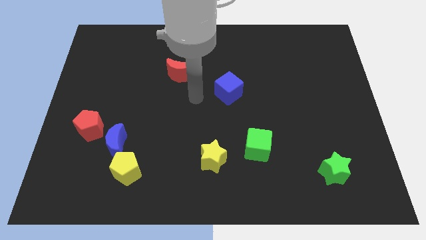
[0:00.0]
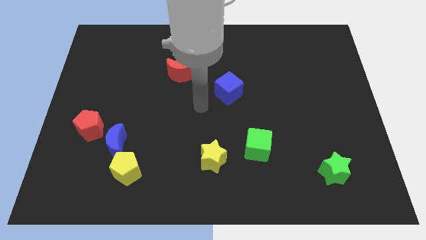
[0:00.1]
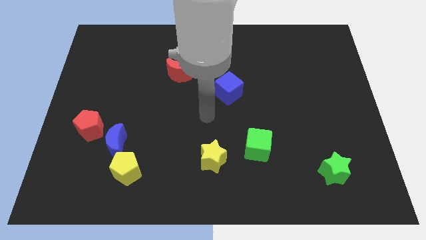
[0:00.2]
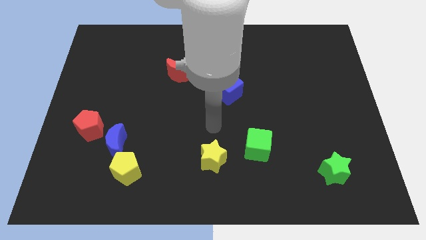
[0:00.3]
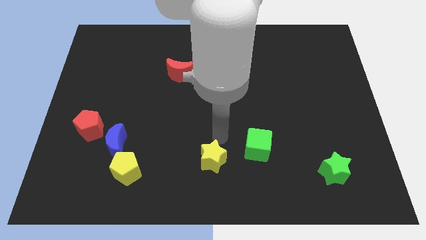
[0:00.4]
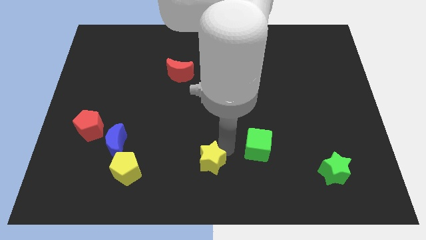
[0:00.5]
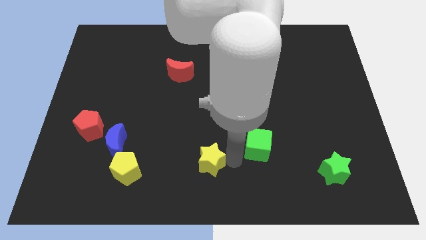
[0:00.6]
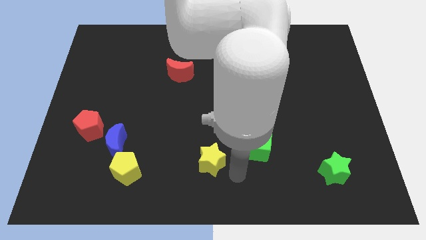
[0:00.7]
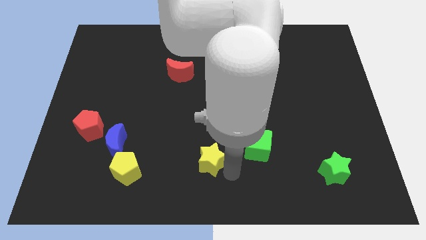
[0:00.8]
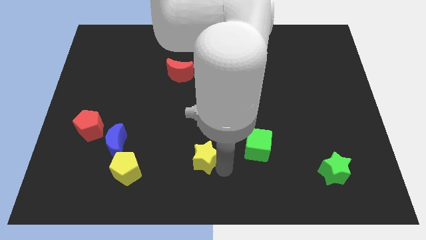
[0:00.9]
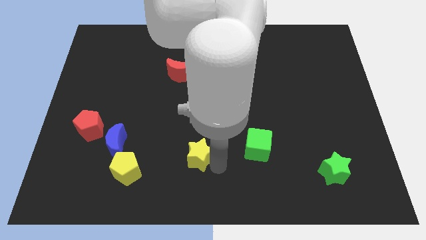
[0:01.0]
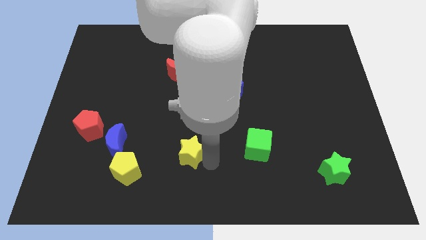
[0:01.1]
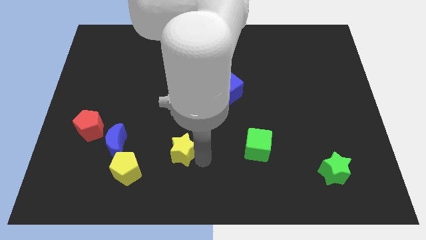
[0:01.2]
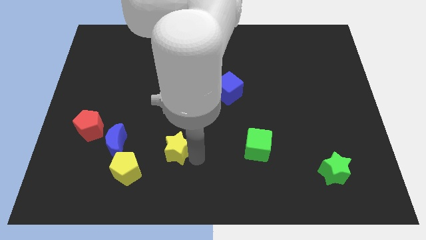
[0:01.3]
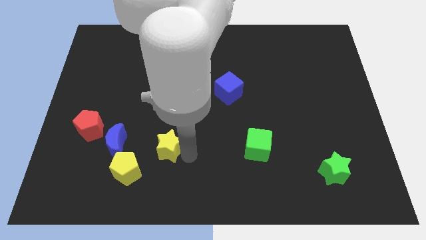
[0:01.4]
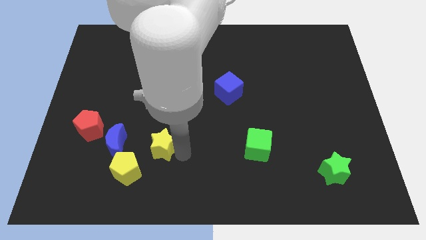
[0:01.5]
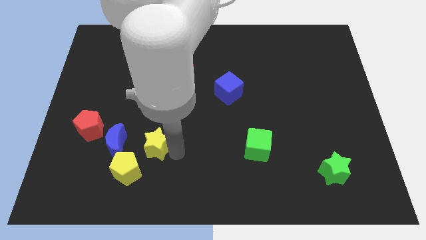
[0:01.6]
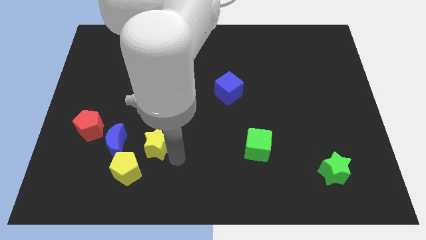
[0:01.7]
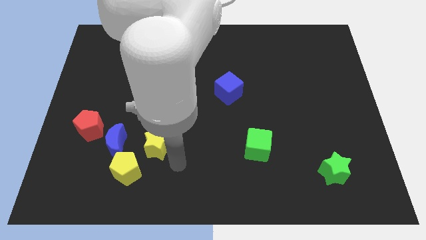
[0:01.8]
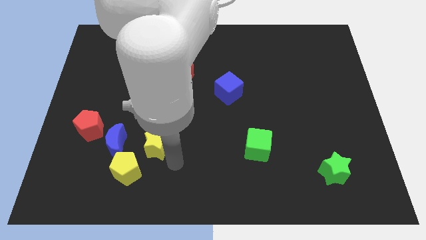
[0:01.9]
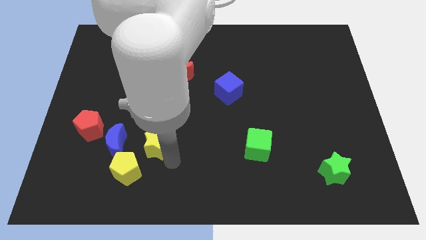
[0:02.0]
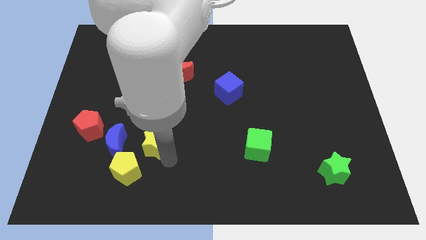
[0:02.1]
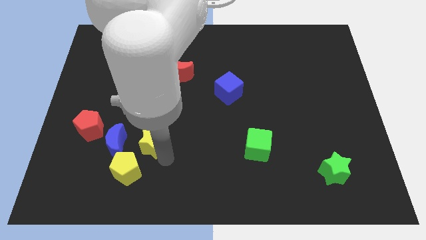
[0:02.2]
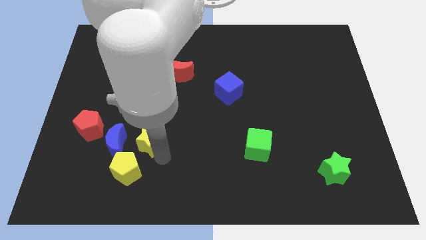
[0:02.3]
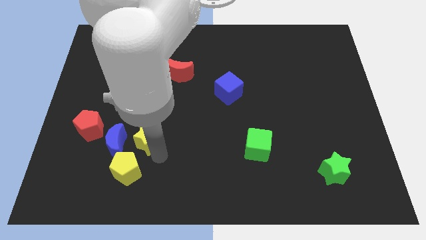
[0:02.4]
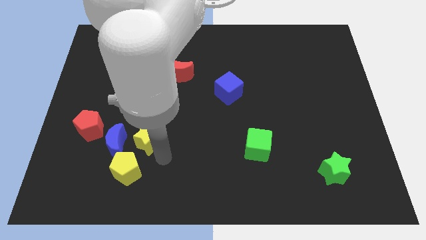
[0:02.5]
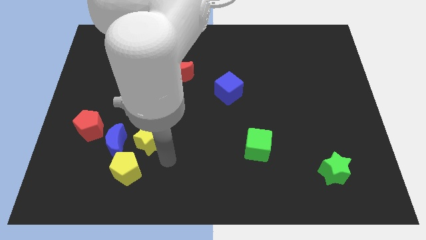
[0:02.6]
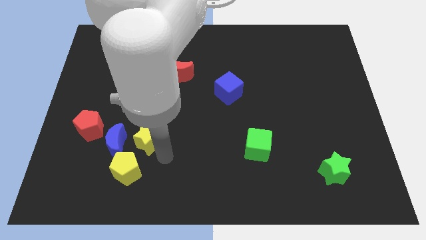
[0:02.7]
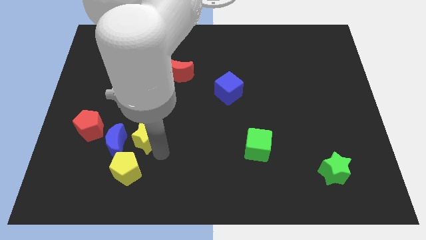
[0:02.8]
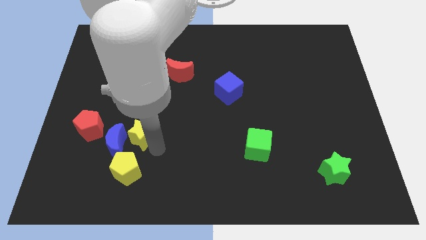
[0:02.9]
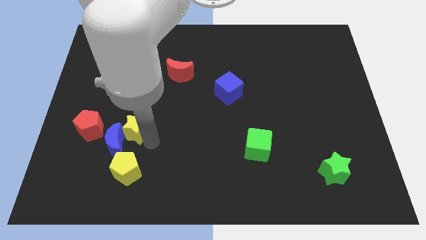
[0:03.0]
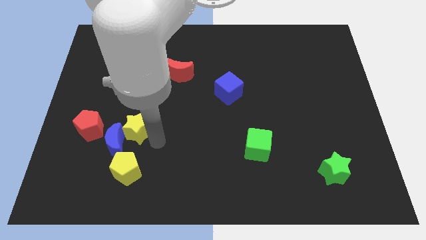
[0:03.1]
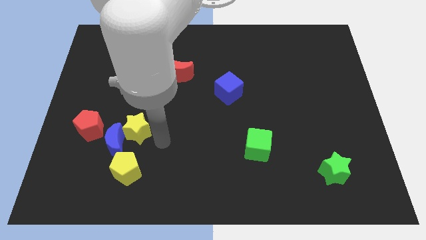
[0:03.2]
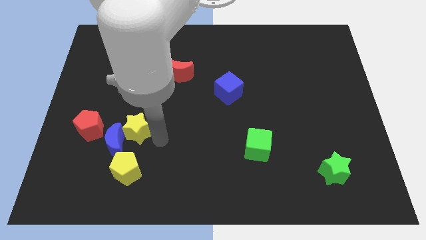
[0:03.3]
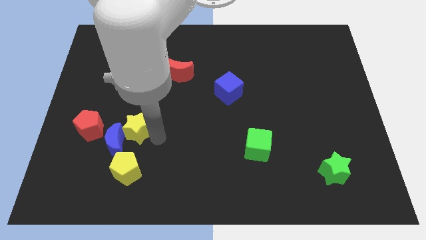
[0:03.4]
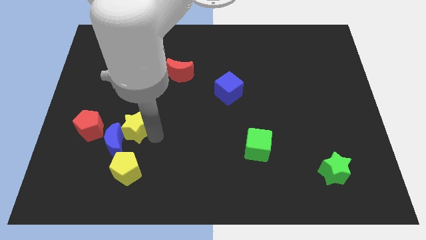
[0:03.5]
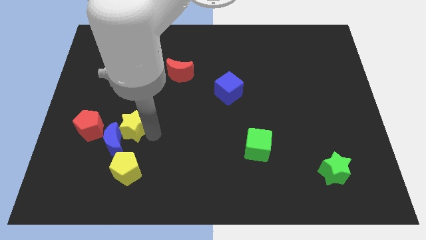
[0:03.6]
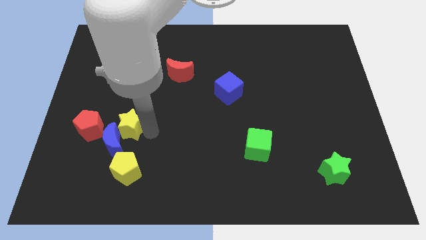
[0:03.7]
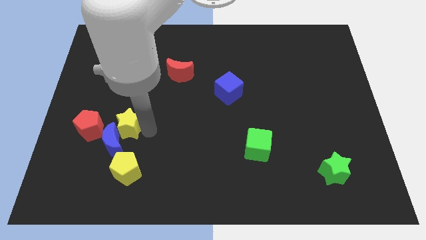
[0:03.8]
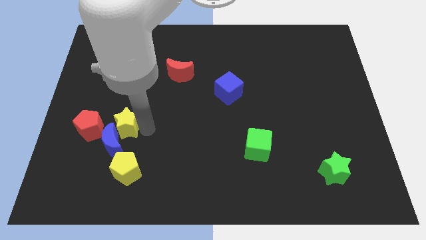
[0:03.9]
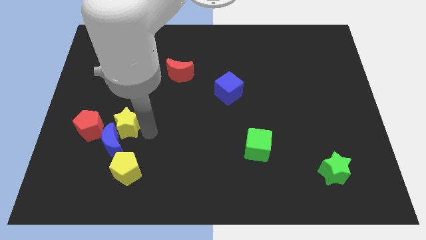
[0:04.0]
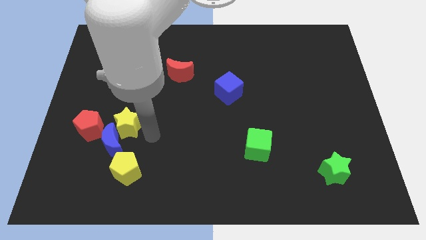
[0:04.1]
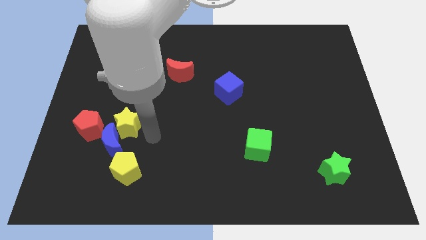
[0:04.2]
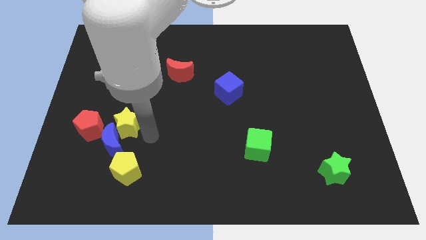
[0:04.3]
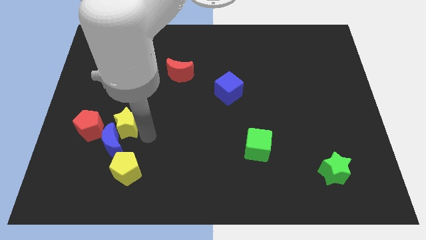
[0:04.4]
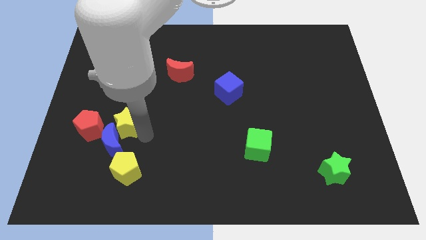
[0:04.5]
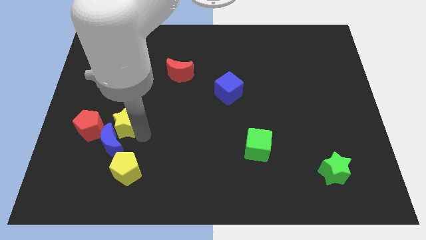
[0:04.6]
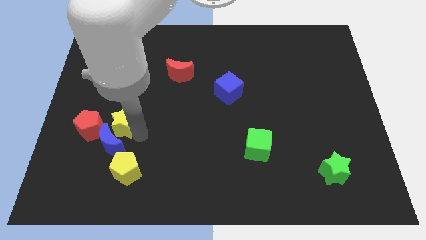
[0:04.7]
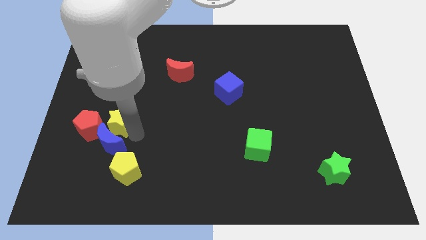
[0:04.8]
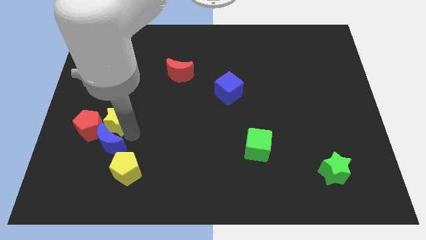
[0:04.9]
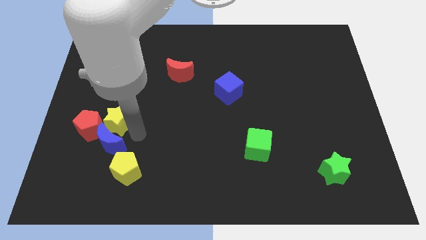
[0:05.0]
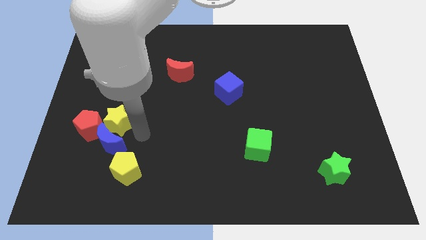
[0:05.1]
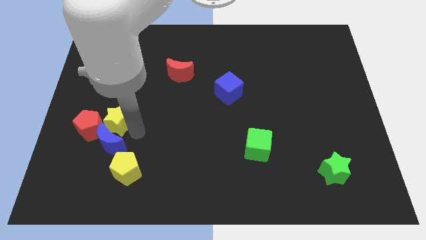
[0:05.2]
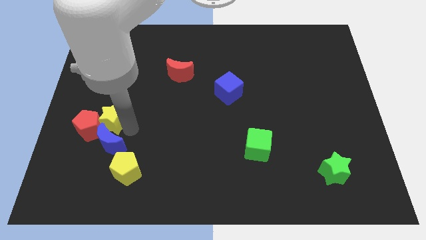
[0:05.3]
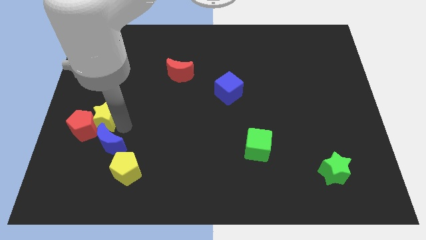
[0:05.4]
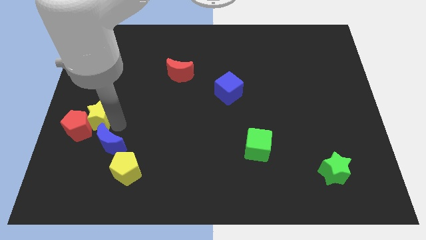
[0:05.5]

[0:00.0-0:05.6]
push the yellow star to the center left

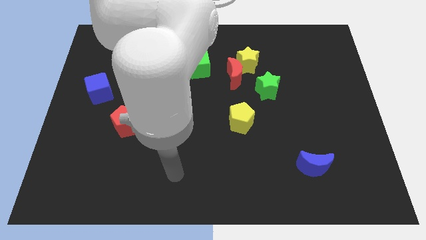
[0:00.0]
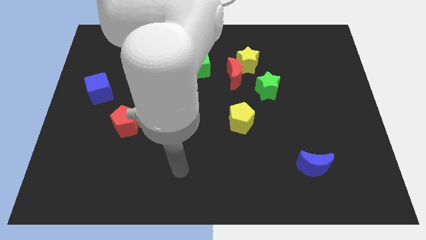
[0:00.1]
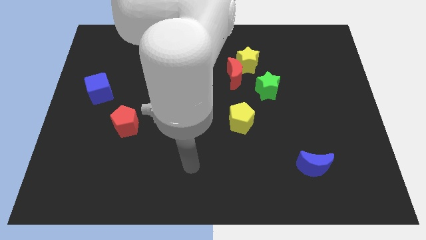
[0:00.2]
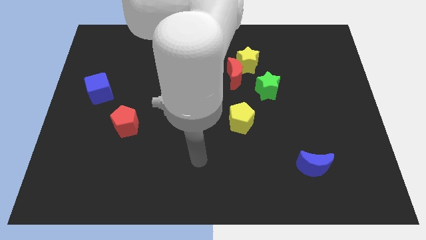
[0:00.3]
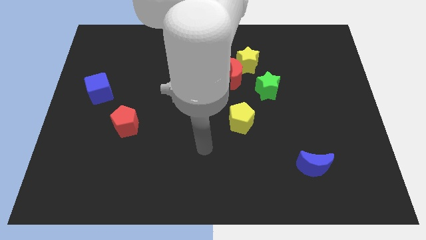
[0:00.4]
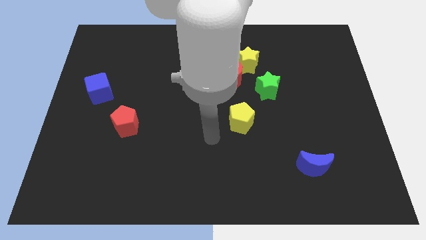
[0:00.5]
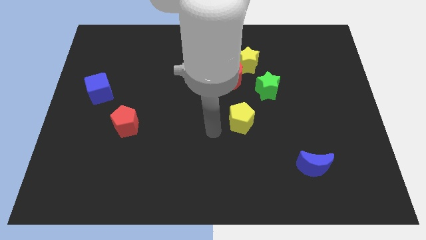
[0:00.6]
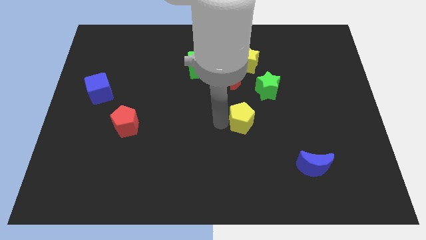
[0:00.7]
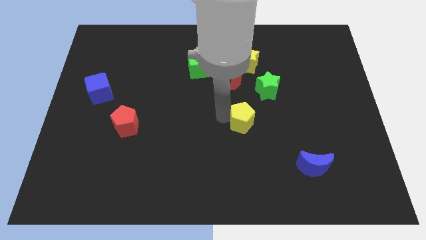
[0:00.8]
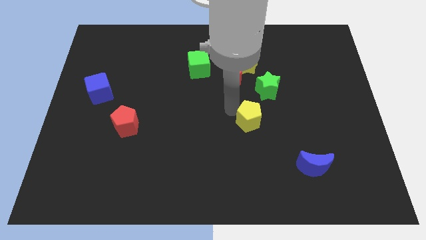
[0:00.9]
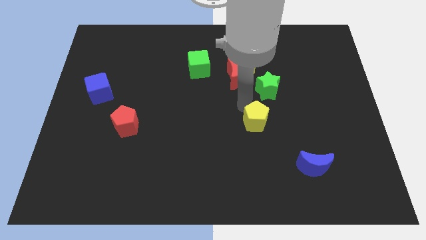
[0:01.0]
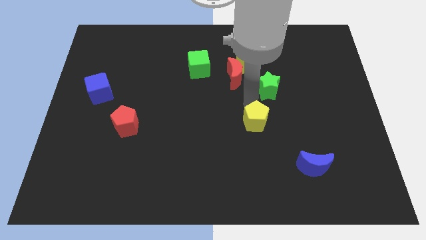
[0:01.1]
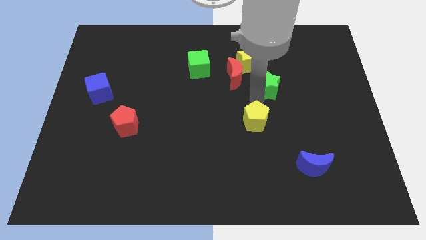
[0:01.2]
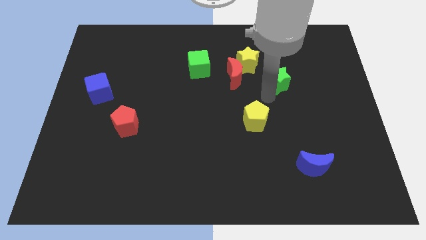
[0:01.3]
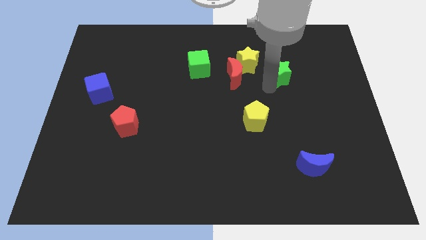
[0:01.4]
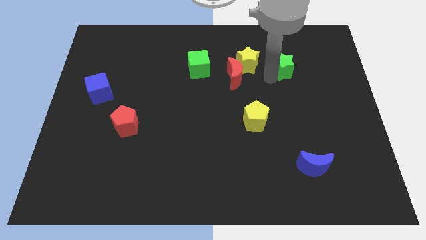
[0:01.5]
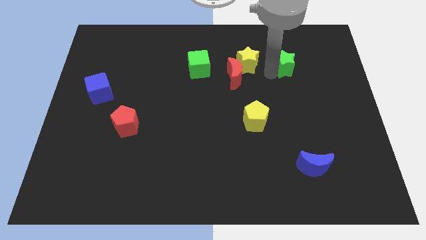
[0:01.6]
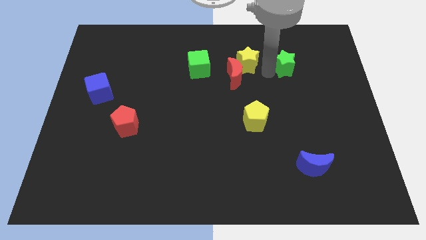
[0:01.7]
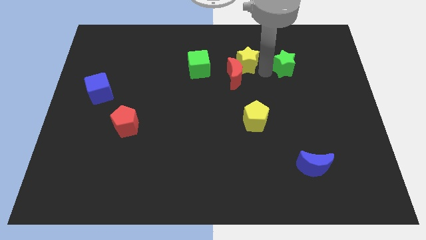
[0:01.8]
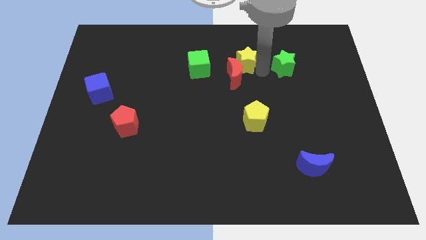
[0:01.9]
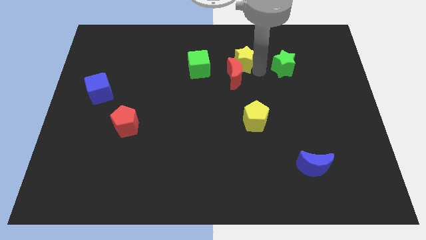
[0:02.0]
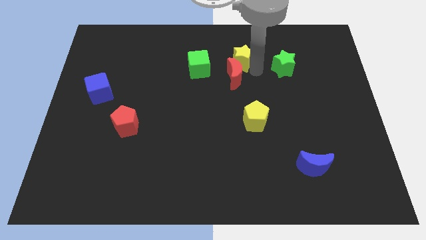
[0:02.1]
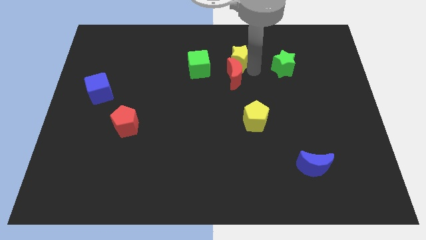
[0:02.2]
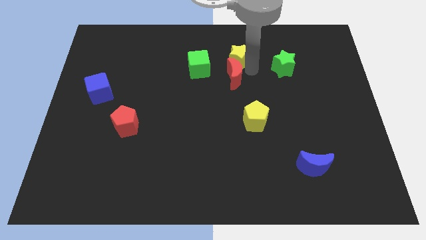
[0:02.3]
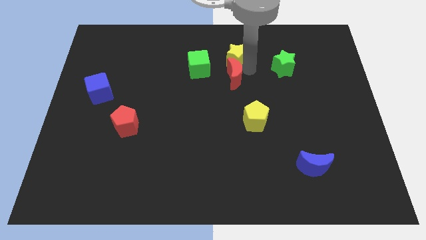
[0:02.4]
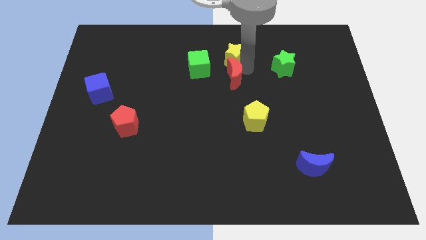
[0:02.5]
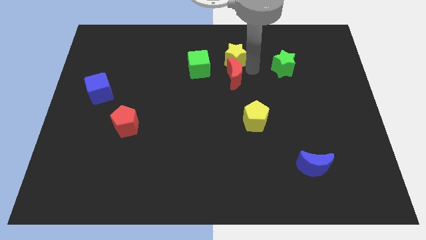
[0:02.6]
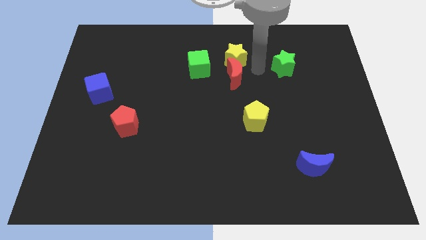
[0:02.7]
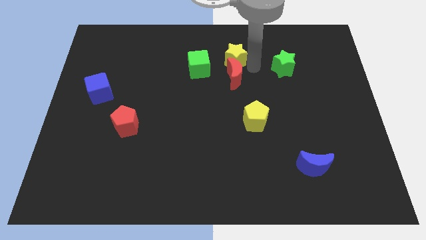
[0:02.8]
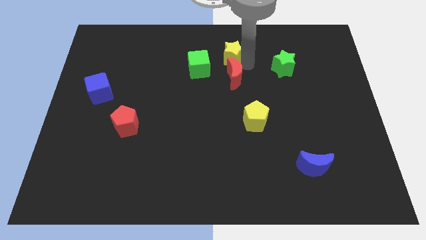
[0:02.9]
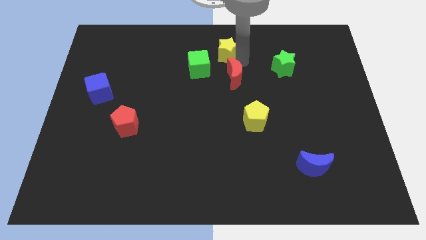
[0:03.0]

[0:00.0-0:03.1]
push the yellow star to the towards your base
